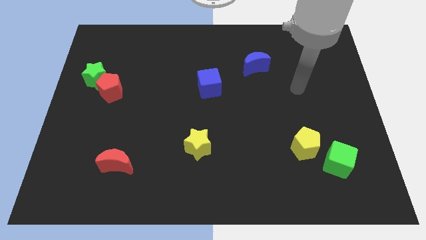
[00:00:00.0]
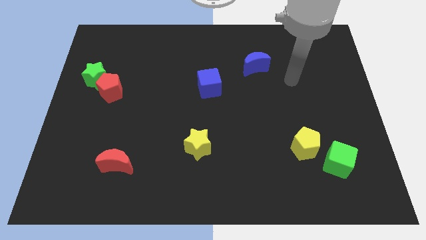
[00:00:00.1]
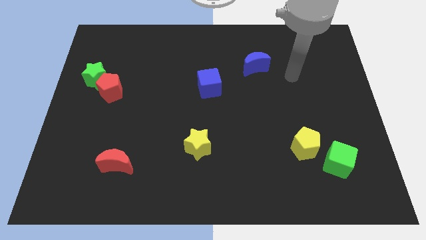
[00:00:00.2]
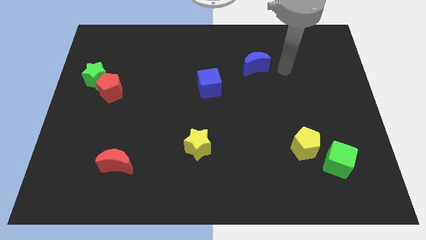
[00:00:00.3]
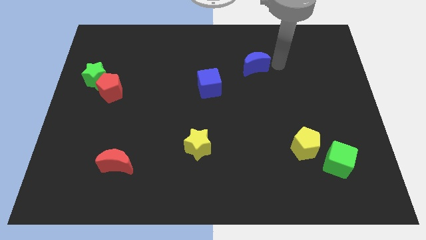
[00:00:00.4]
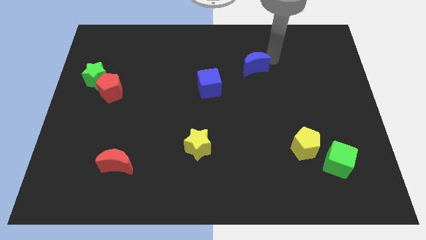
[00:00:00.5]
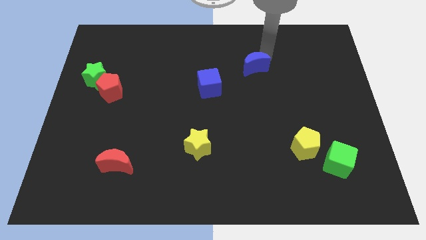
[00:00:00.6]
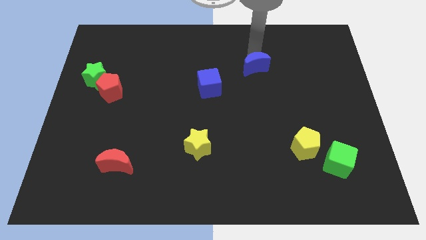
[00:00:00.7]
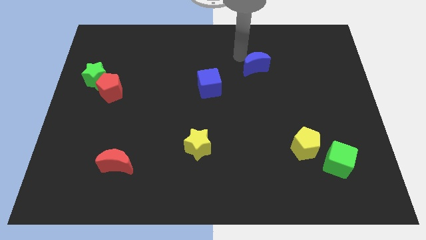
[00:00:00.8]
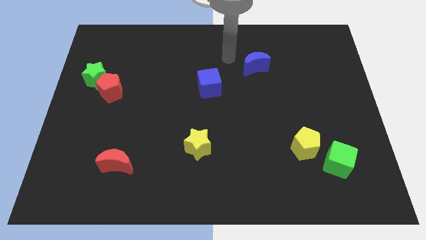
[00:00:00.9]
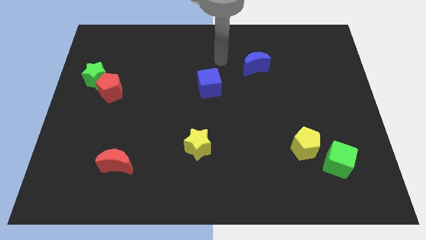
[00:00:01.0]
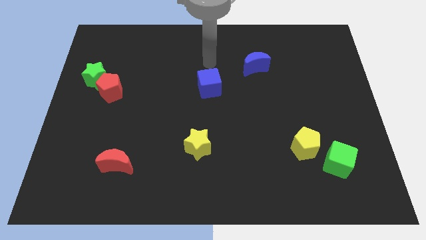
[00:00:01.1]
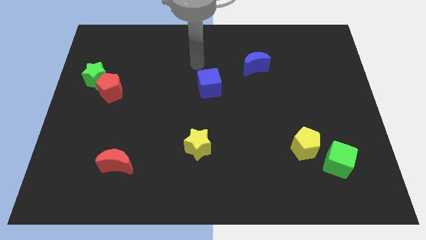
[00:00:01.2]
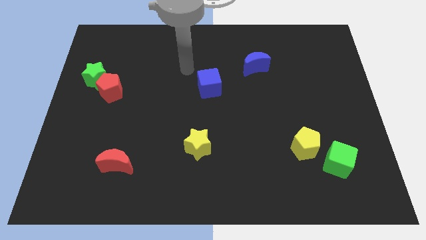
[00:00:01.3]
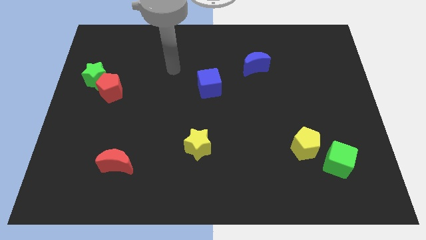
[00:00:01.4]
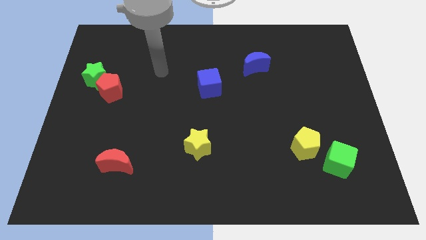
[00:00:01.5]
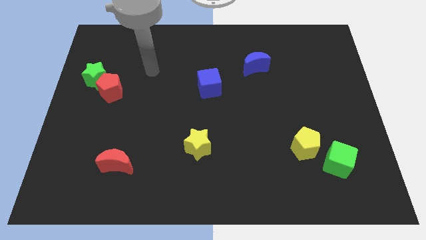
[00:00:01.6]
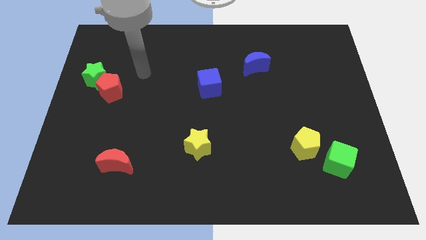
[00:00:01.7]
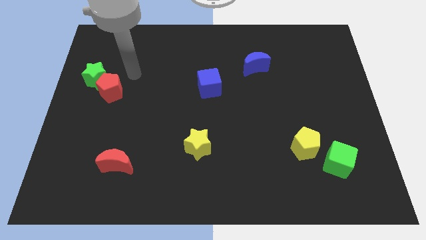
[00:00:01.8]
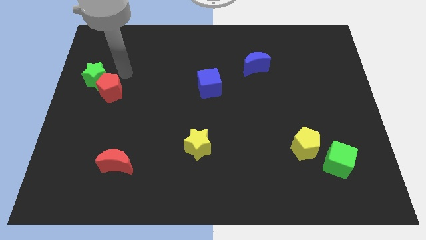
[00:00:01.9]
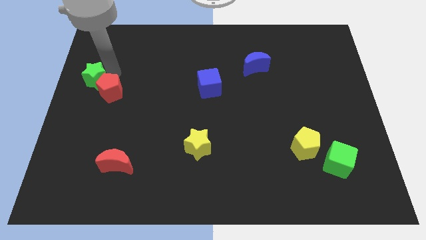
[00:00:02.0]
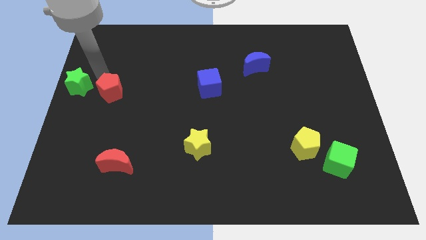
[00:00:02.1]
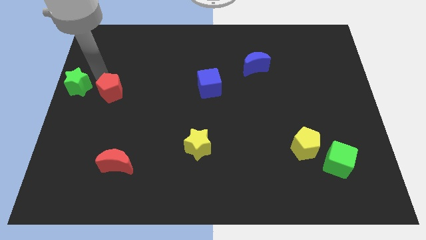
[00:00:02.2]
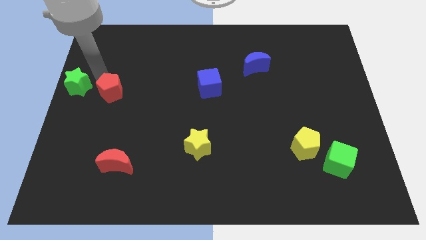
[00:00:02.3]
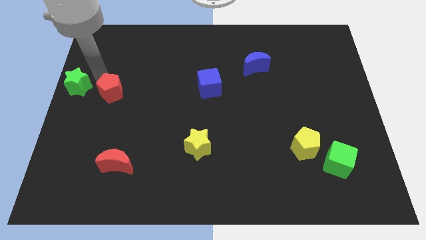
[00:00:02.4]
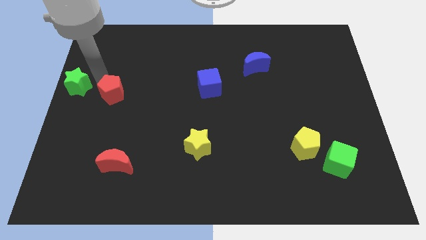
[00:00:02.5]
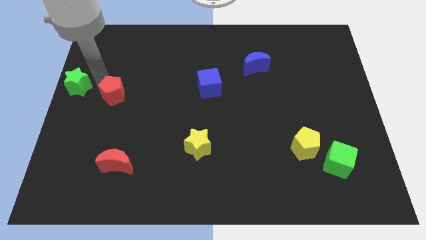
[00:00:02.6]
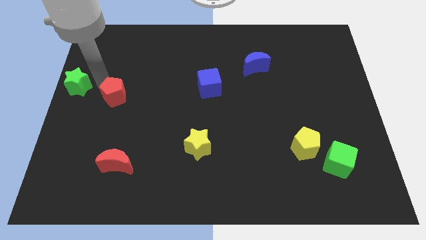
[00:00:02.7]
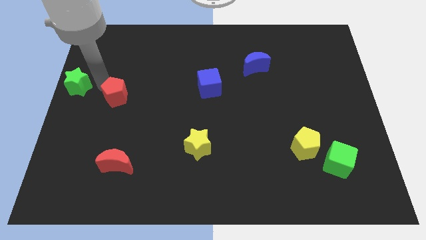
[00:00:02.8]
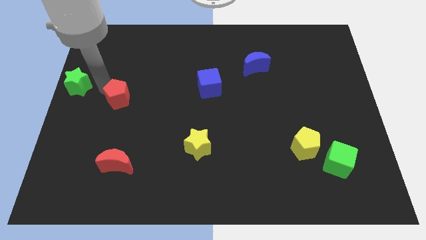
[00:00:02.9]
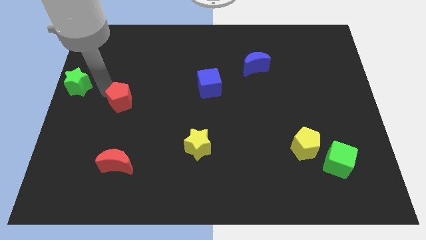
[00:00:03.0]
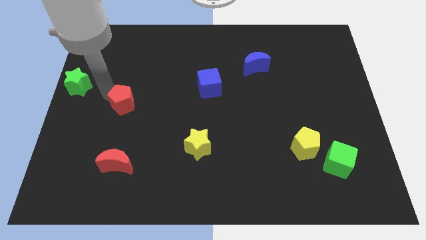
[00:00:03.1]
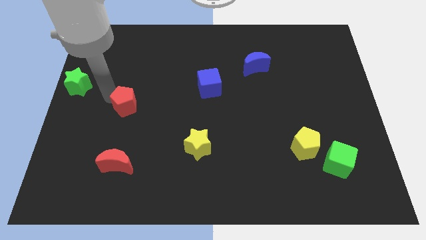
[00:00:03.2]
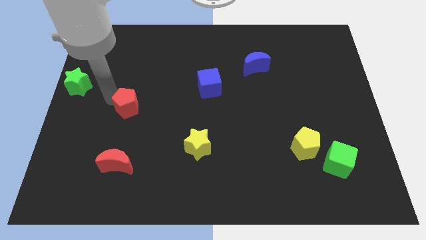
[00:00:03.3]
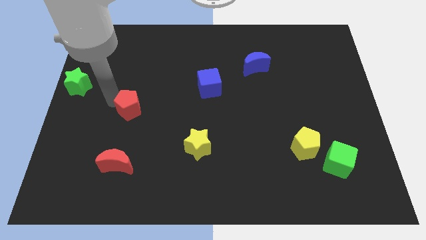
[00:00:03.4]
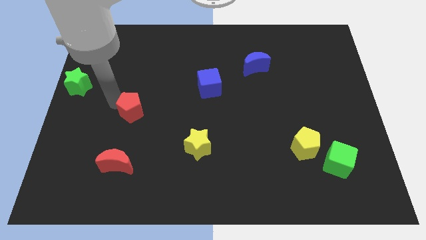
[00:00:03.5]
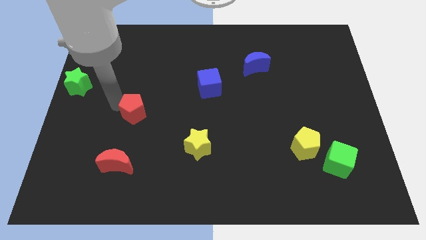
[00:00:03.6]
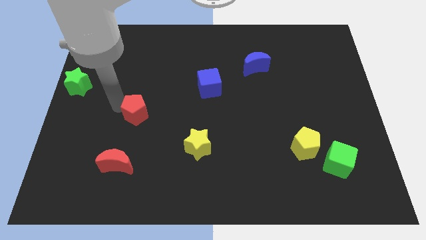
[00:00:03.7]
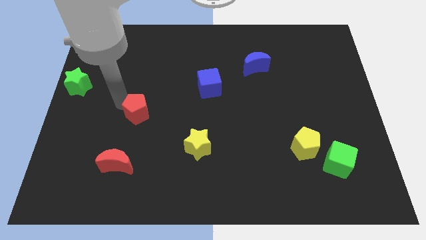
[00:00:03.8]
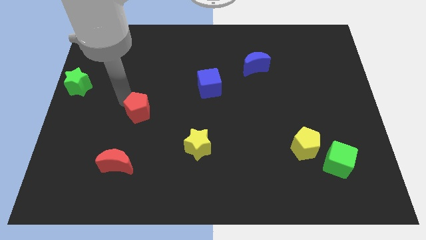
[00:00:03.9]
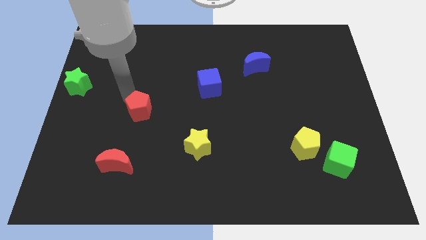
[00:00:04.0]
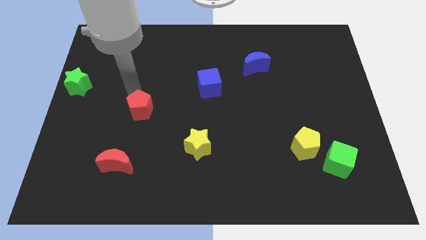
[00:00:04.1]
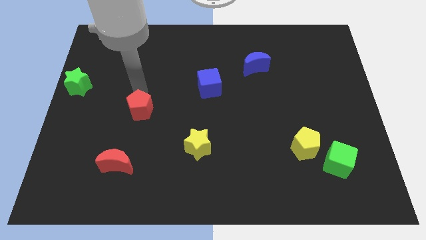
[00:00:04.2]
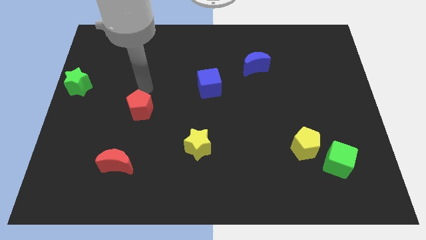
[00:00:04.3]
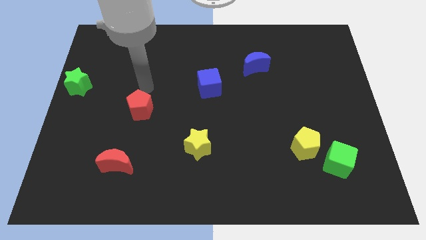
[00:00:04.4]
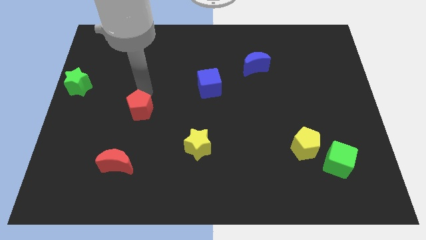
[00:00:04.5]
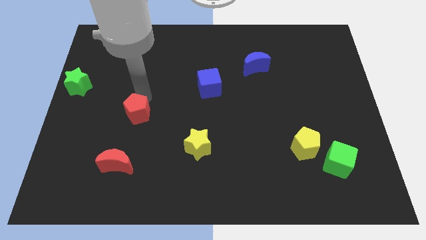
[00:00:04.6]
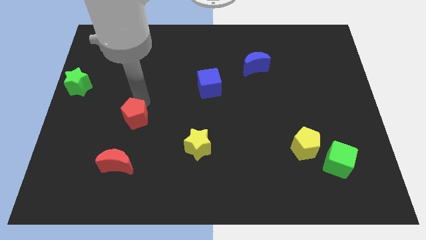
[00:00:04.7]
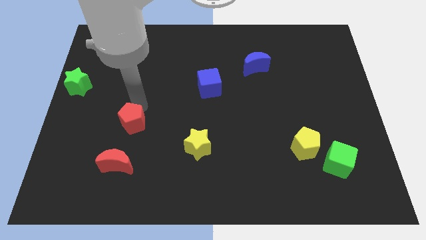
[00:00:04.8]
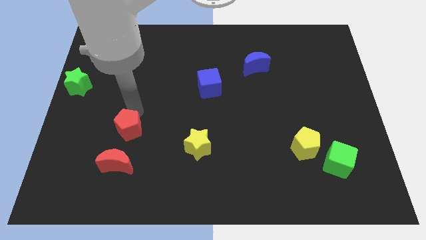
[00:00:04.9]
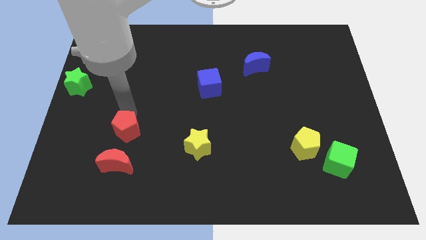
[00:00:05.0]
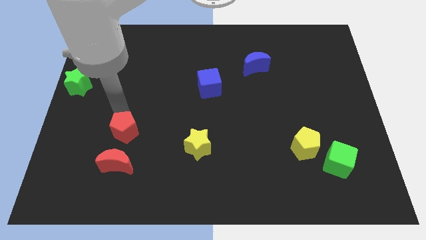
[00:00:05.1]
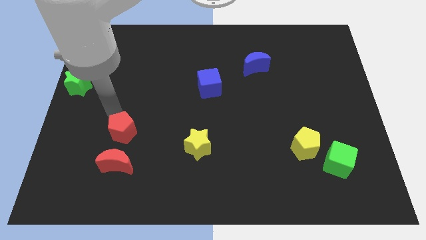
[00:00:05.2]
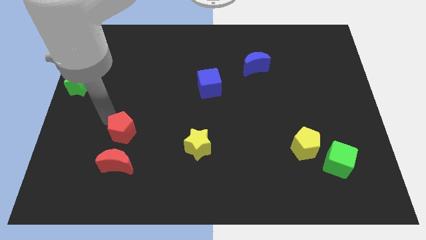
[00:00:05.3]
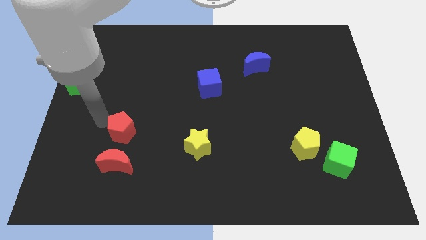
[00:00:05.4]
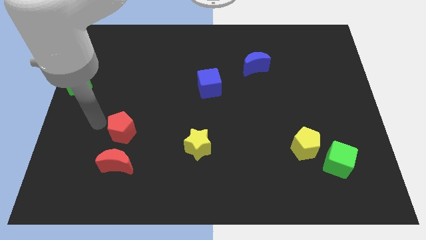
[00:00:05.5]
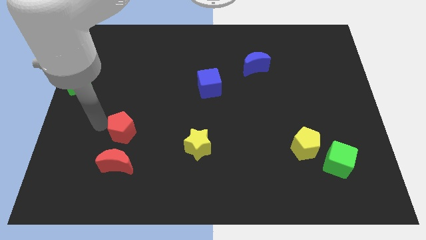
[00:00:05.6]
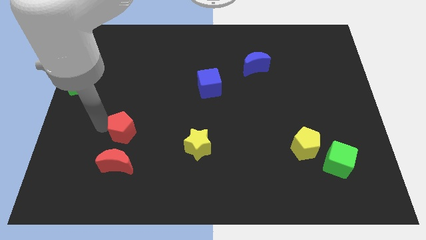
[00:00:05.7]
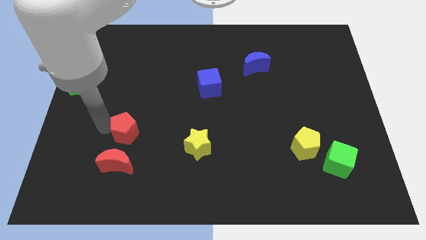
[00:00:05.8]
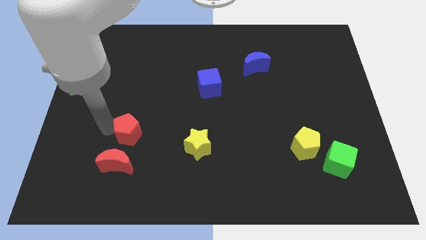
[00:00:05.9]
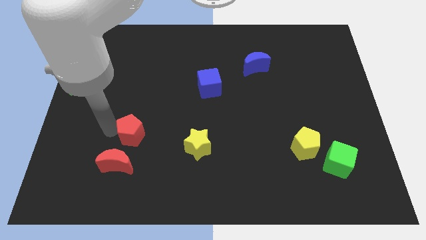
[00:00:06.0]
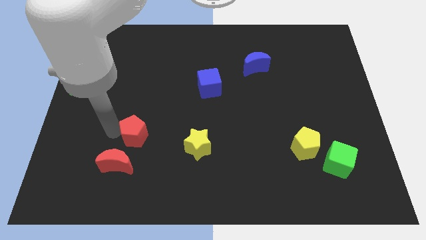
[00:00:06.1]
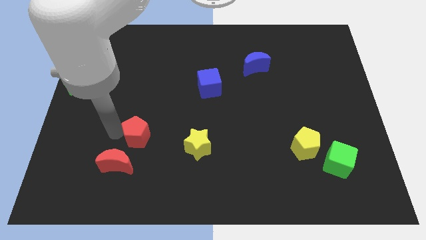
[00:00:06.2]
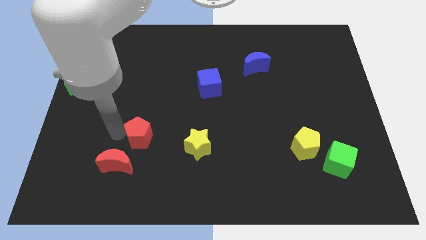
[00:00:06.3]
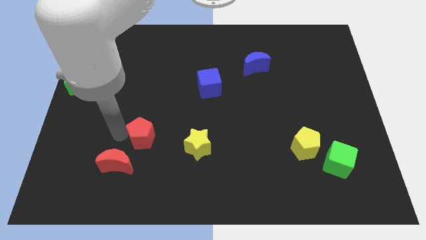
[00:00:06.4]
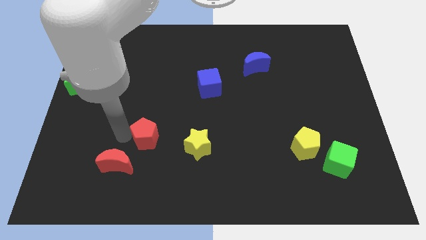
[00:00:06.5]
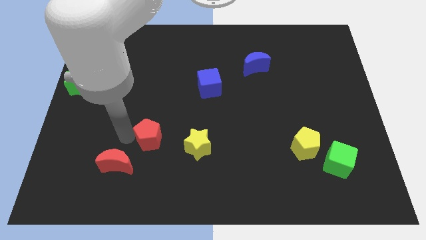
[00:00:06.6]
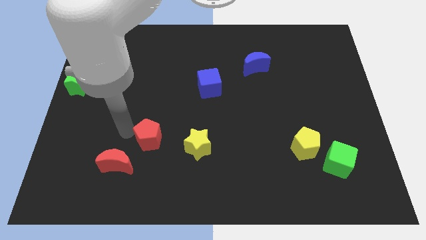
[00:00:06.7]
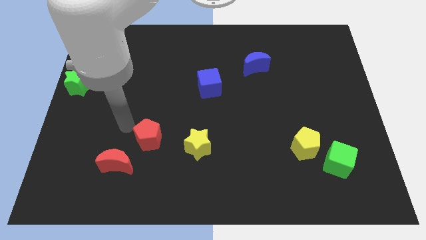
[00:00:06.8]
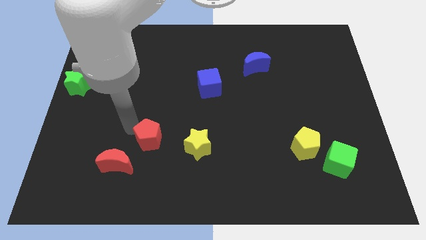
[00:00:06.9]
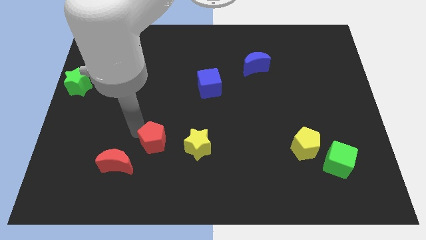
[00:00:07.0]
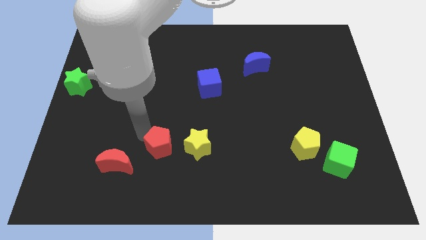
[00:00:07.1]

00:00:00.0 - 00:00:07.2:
push the red pentagon down and to the right

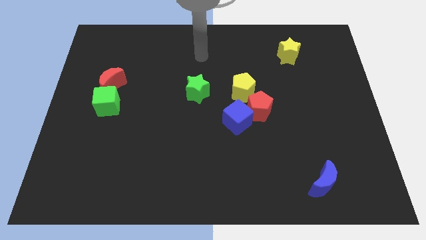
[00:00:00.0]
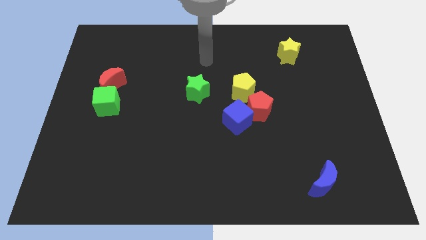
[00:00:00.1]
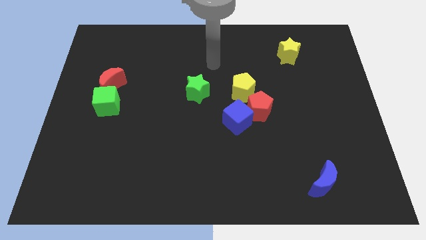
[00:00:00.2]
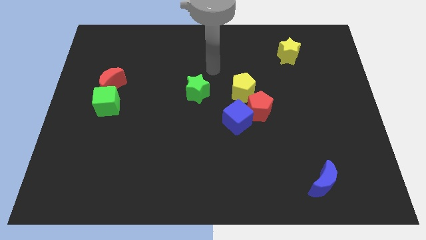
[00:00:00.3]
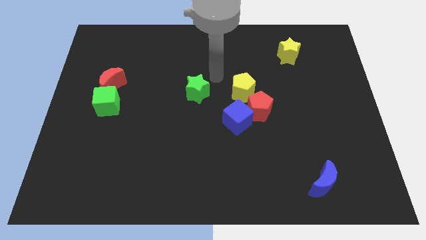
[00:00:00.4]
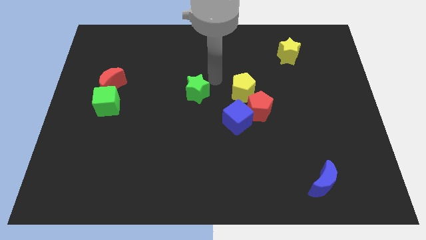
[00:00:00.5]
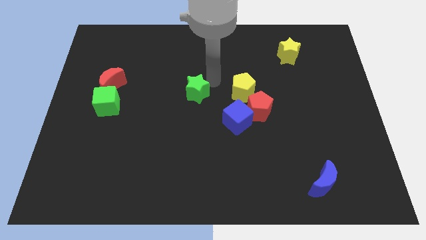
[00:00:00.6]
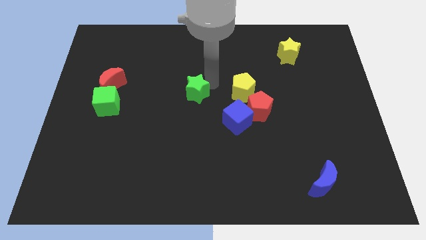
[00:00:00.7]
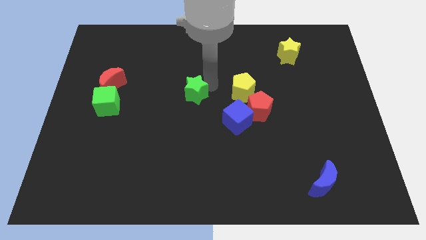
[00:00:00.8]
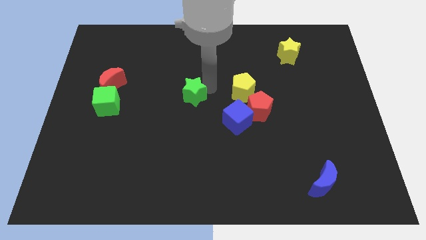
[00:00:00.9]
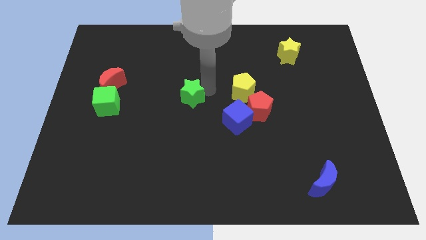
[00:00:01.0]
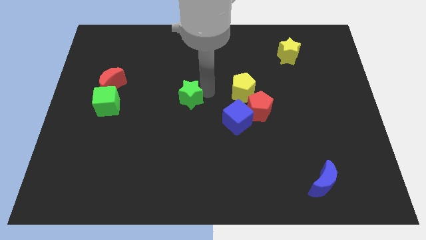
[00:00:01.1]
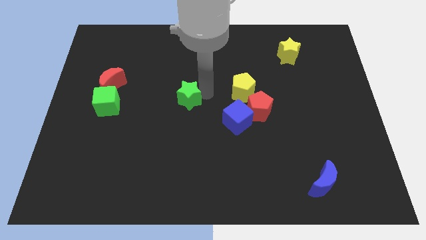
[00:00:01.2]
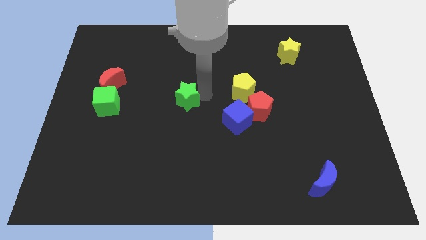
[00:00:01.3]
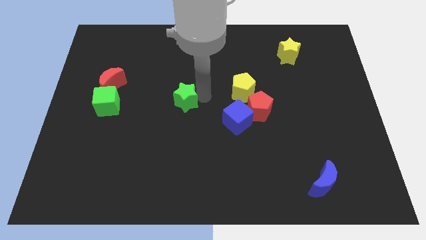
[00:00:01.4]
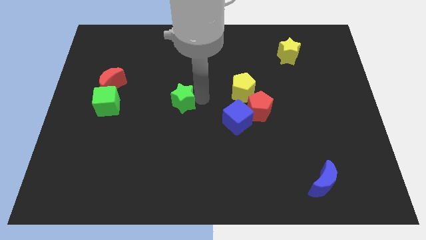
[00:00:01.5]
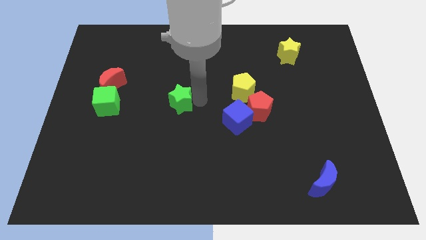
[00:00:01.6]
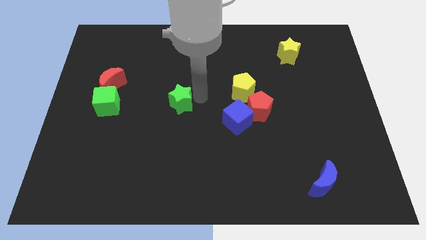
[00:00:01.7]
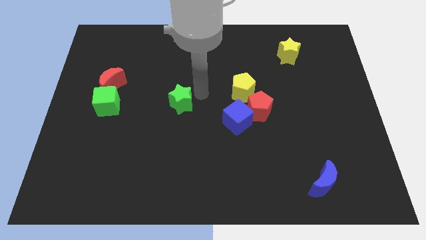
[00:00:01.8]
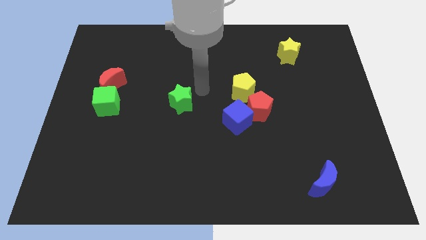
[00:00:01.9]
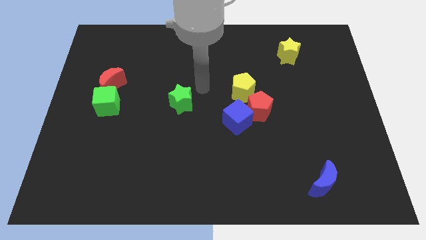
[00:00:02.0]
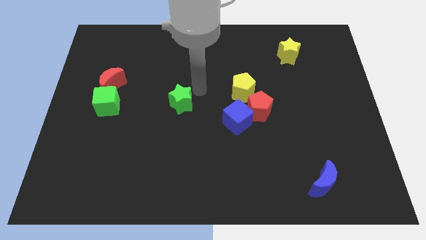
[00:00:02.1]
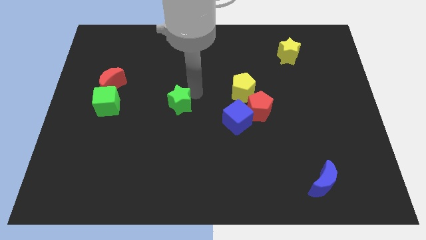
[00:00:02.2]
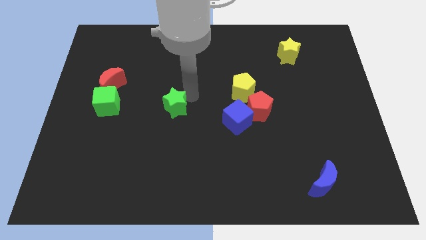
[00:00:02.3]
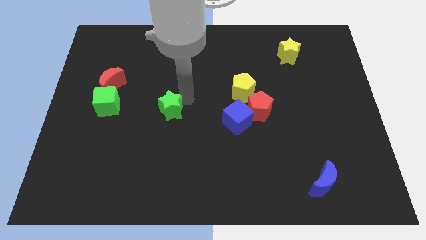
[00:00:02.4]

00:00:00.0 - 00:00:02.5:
push the green star downwards and to the left diagonally a bit
